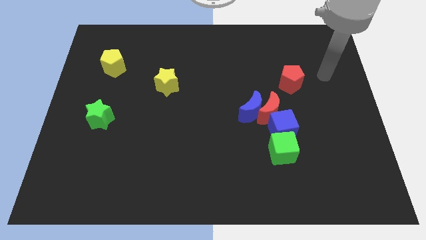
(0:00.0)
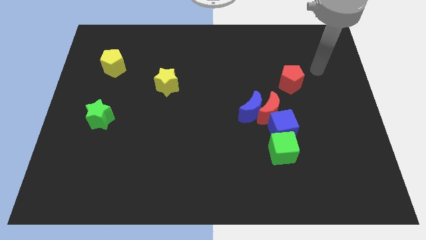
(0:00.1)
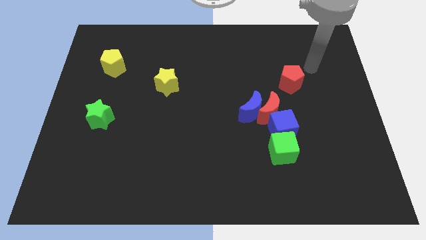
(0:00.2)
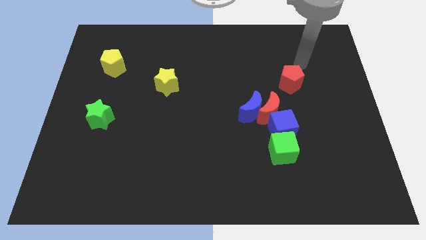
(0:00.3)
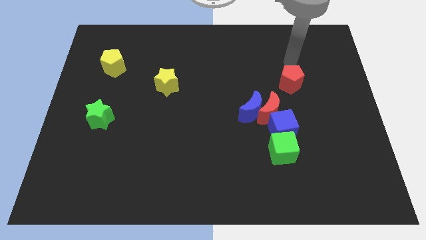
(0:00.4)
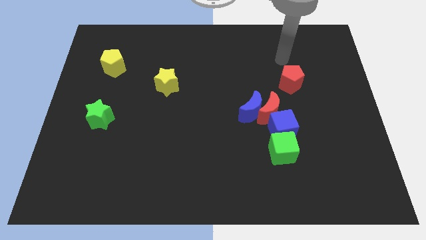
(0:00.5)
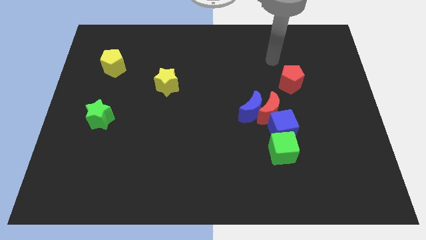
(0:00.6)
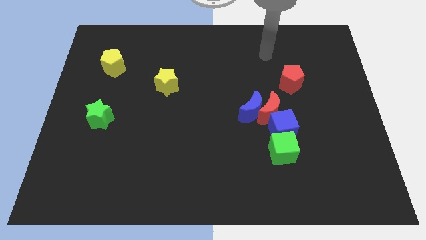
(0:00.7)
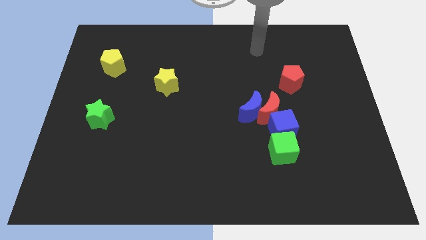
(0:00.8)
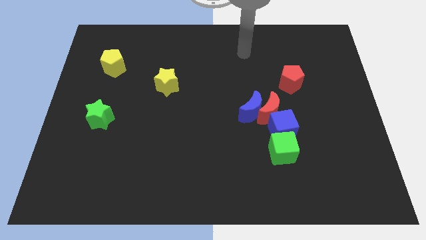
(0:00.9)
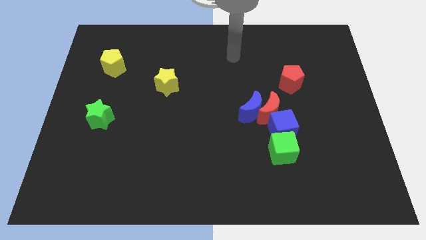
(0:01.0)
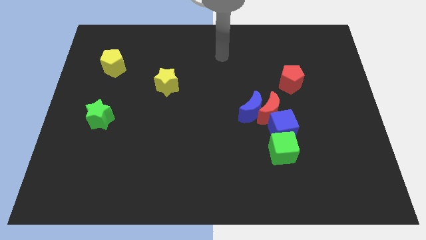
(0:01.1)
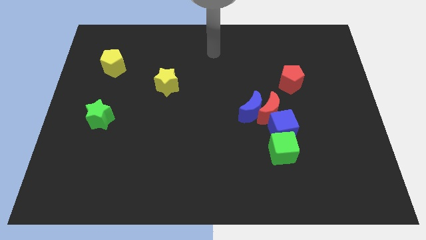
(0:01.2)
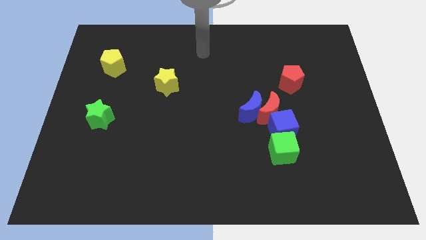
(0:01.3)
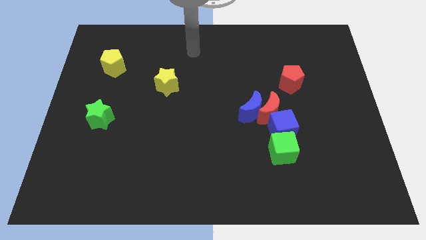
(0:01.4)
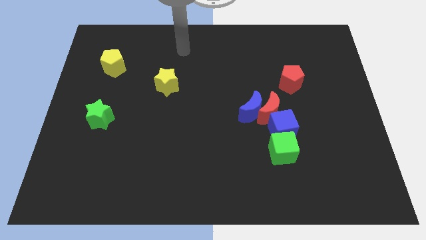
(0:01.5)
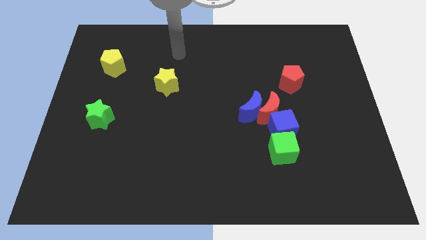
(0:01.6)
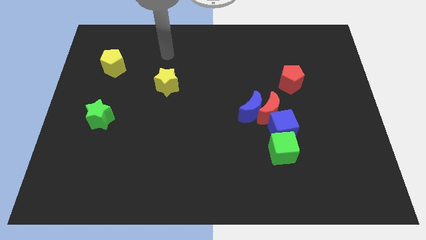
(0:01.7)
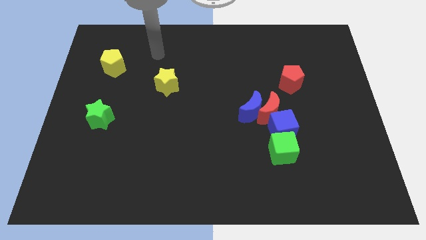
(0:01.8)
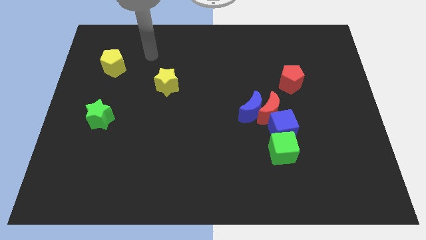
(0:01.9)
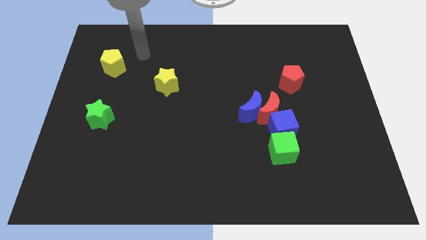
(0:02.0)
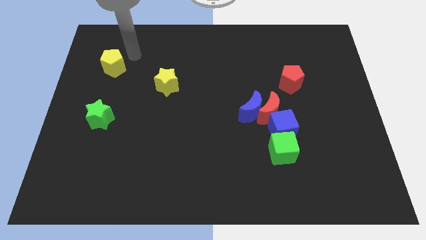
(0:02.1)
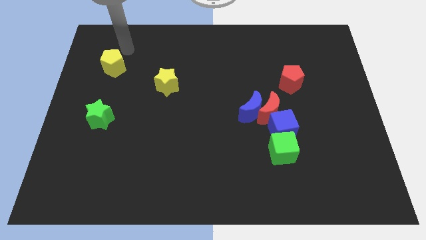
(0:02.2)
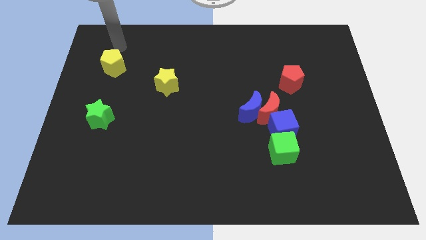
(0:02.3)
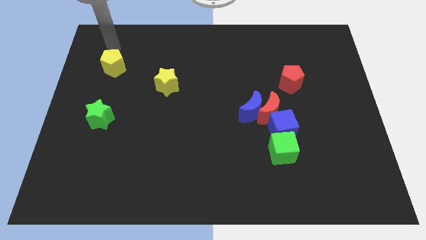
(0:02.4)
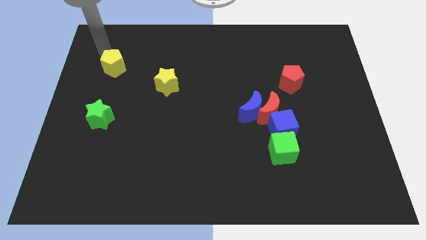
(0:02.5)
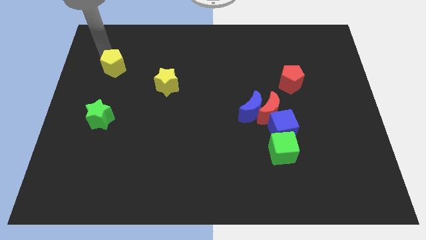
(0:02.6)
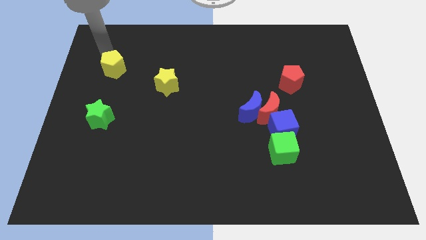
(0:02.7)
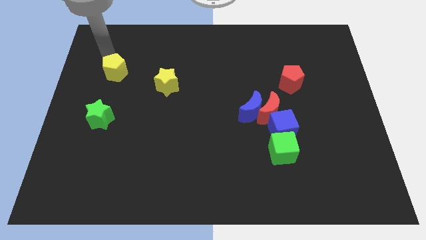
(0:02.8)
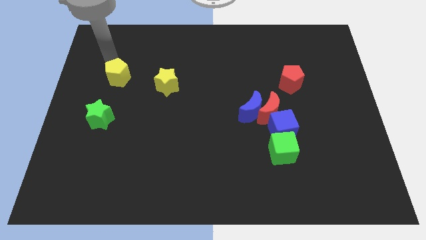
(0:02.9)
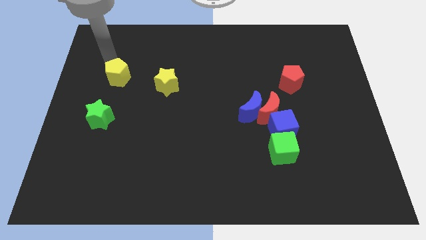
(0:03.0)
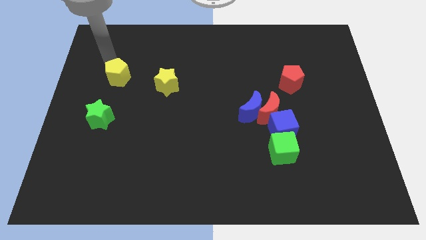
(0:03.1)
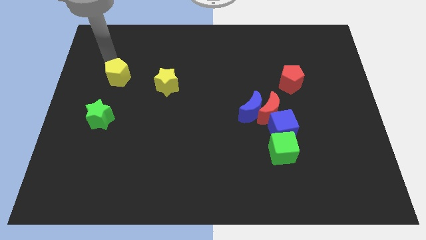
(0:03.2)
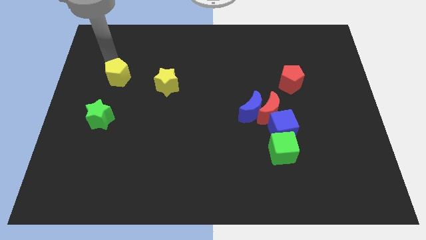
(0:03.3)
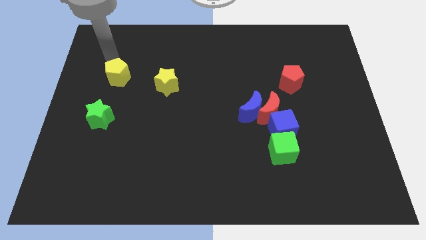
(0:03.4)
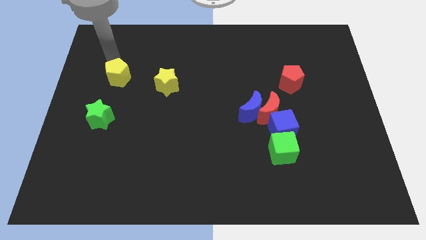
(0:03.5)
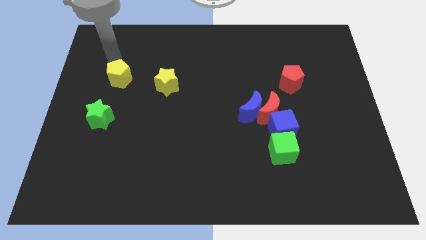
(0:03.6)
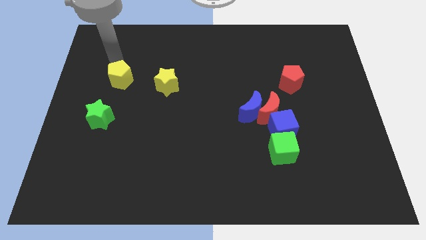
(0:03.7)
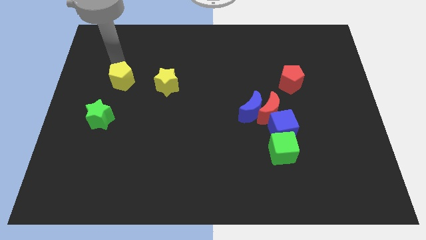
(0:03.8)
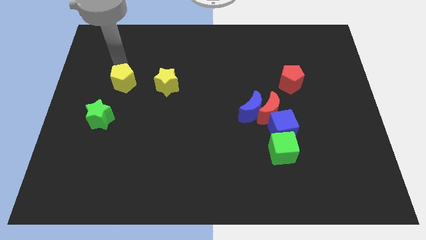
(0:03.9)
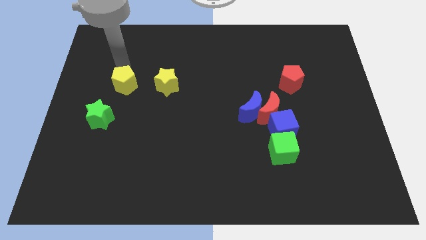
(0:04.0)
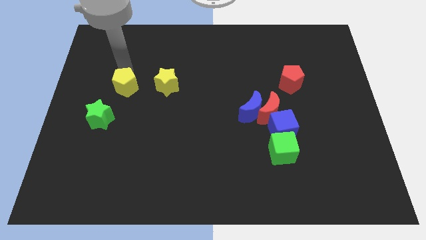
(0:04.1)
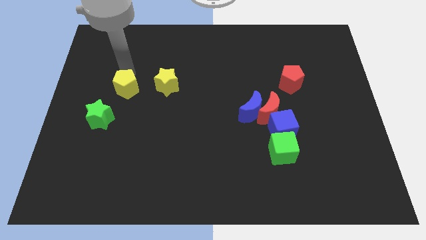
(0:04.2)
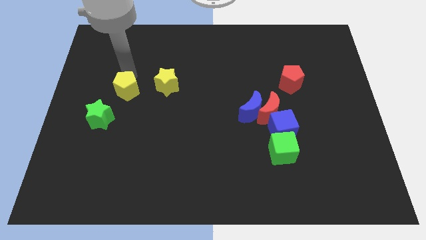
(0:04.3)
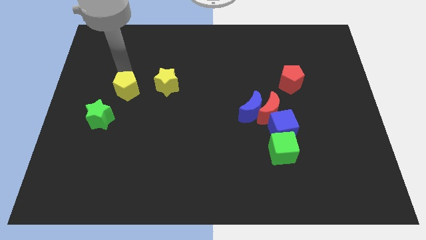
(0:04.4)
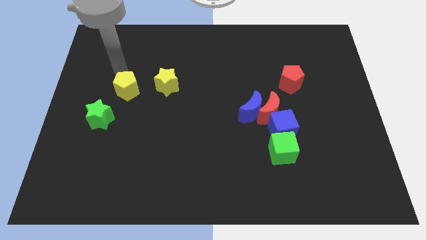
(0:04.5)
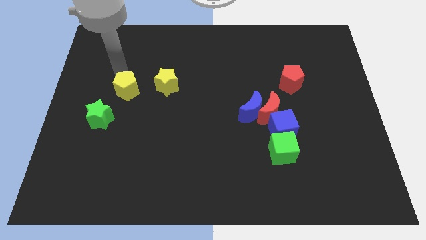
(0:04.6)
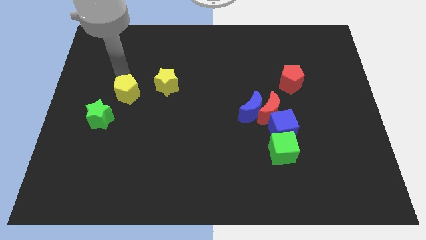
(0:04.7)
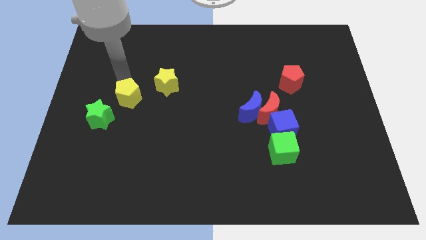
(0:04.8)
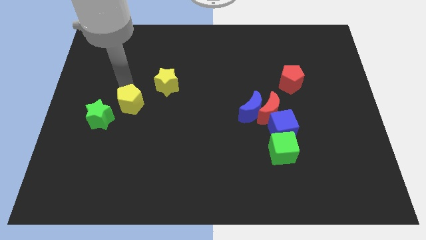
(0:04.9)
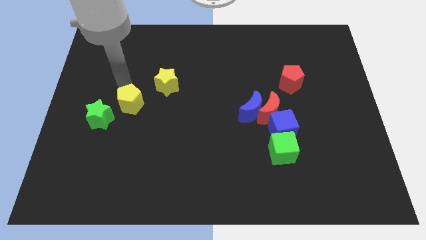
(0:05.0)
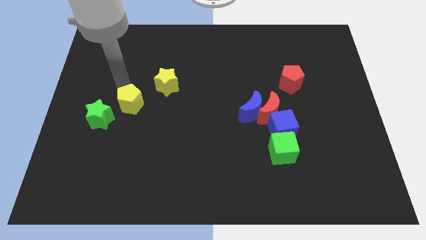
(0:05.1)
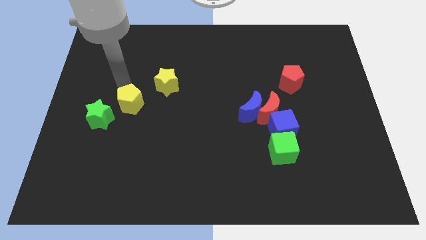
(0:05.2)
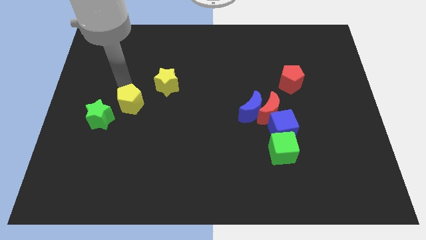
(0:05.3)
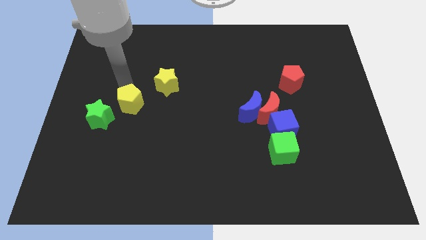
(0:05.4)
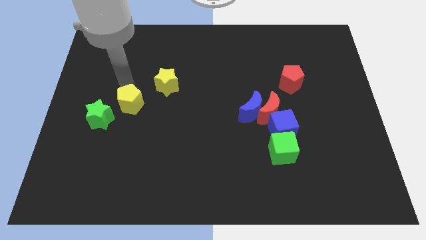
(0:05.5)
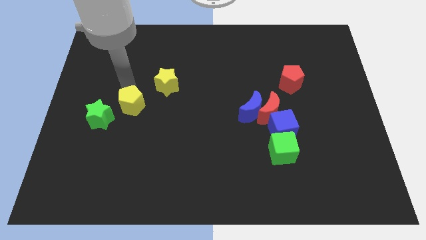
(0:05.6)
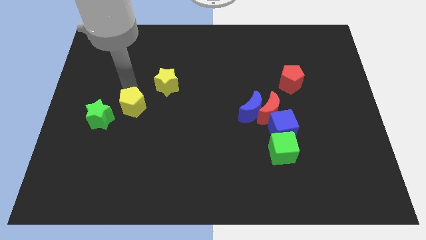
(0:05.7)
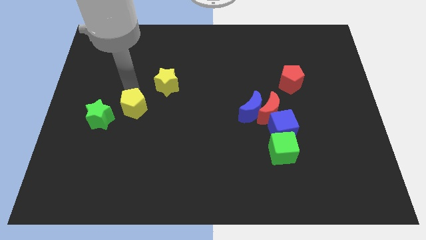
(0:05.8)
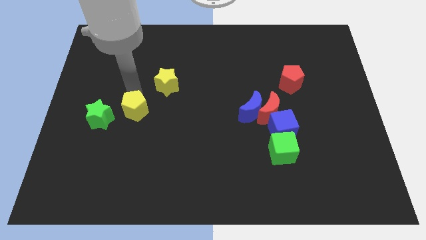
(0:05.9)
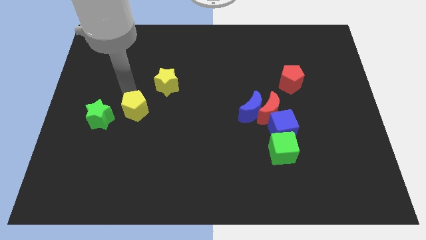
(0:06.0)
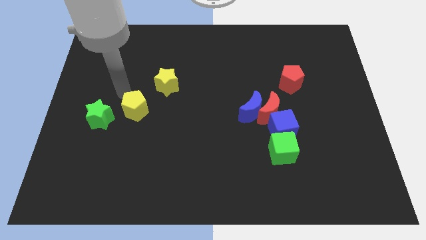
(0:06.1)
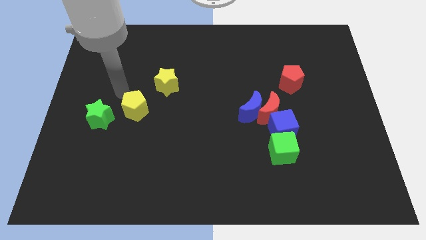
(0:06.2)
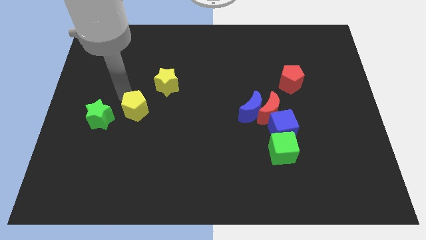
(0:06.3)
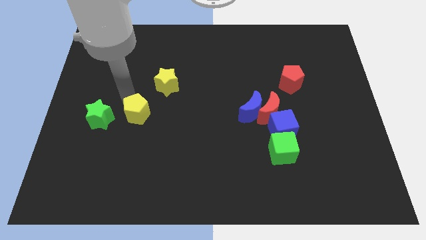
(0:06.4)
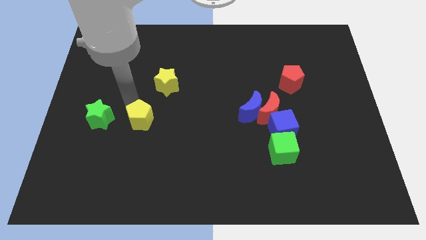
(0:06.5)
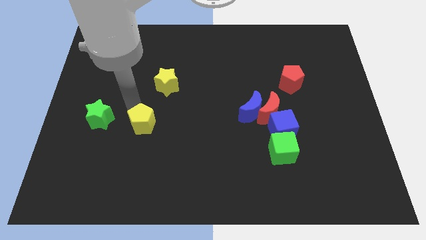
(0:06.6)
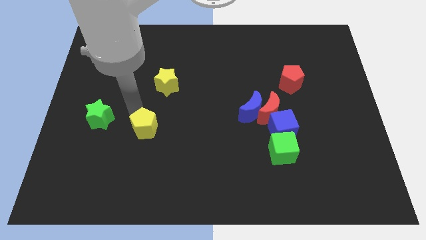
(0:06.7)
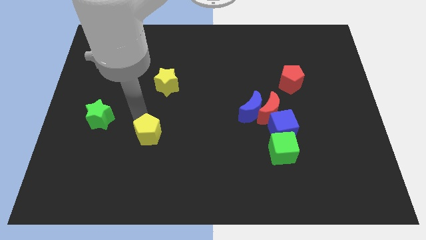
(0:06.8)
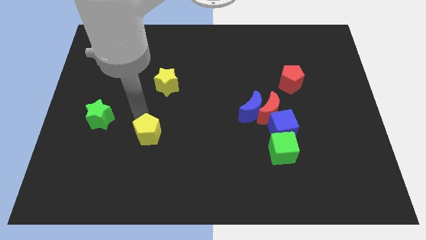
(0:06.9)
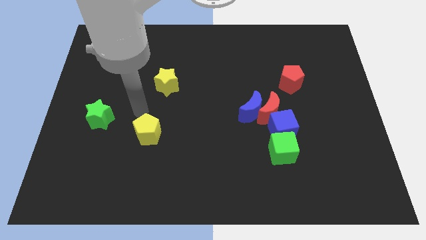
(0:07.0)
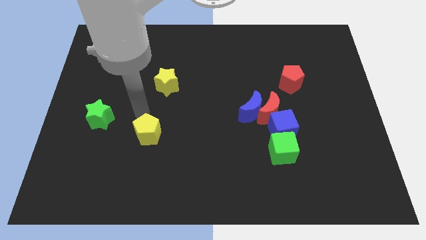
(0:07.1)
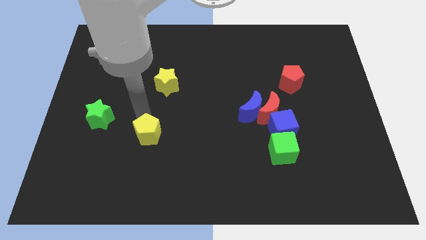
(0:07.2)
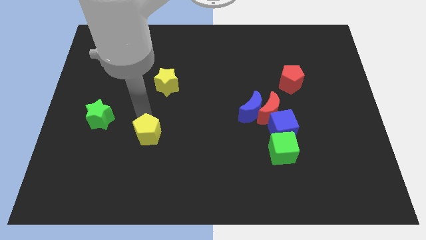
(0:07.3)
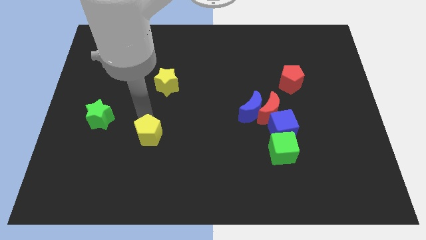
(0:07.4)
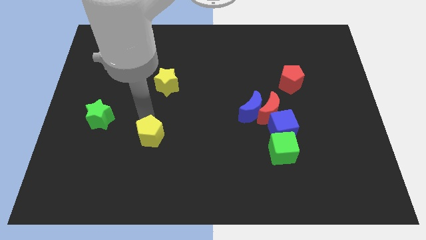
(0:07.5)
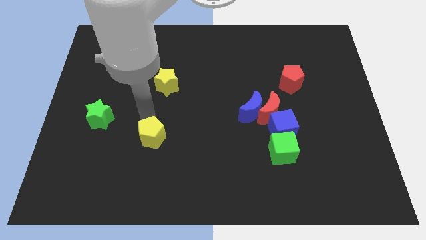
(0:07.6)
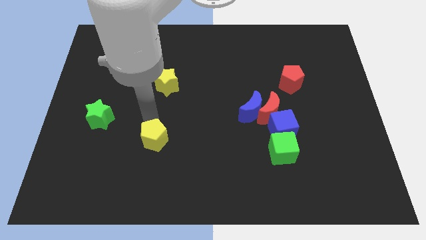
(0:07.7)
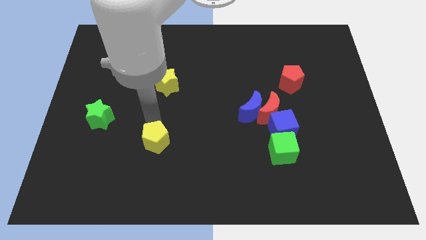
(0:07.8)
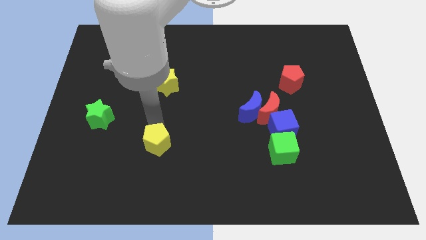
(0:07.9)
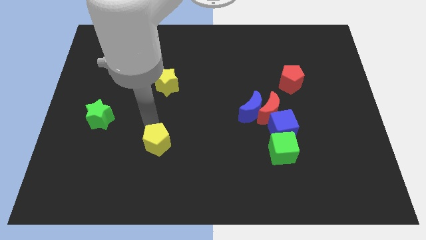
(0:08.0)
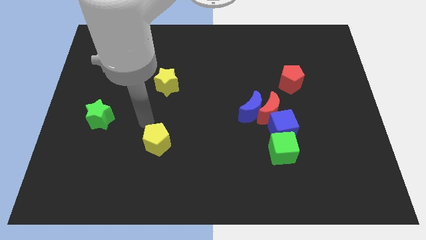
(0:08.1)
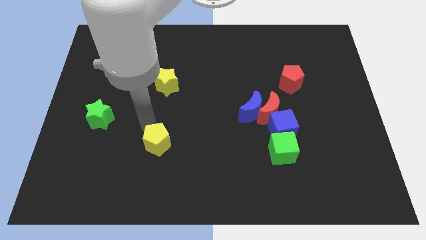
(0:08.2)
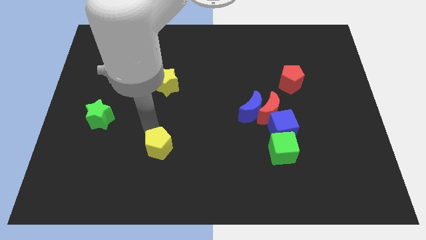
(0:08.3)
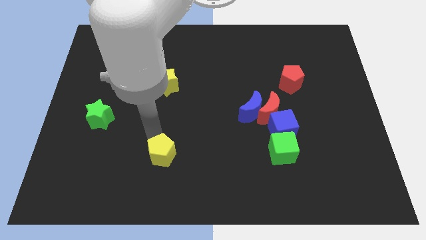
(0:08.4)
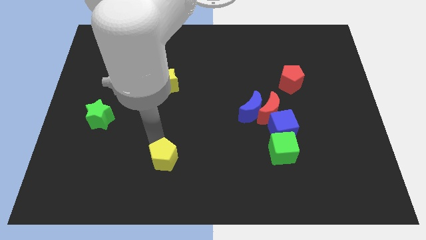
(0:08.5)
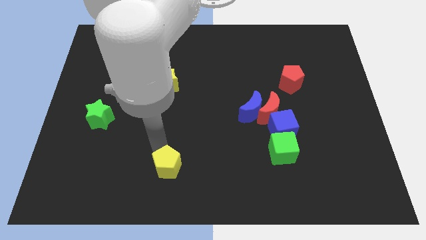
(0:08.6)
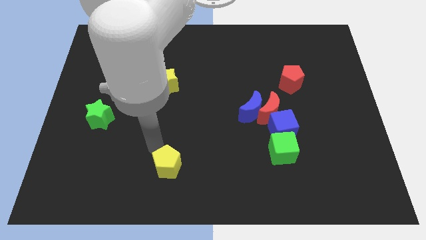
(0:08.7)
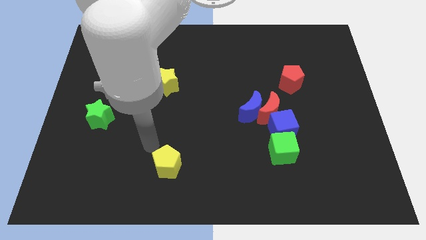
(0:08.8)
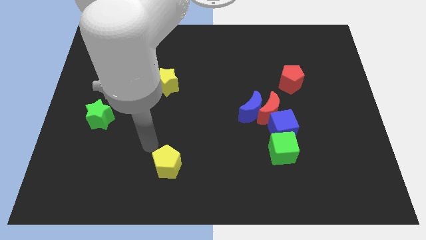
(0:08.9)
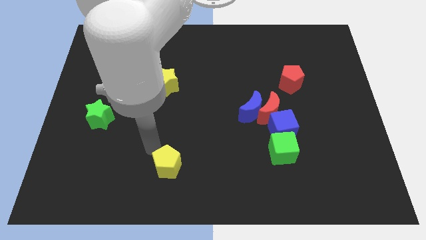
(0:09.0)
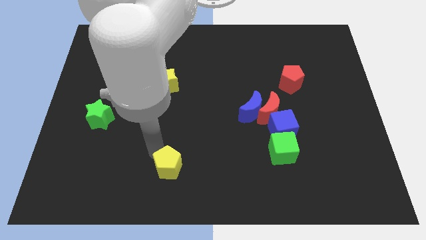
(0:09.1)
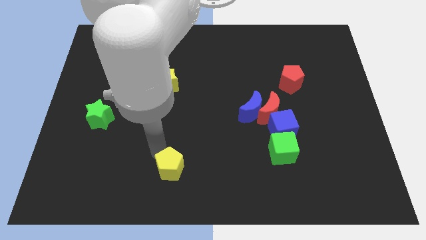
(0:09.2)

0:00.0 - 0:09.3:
move the yellow pentagon to the bottom side
